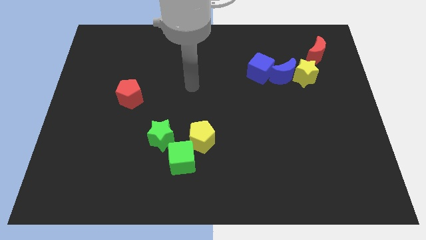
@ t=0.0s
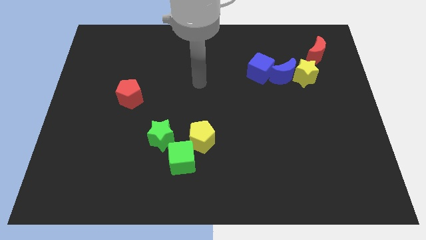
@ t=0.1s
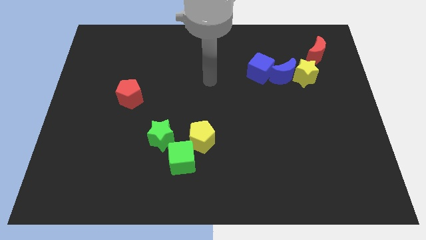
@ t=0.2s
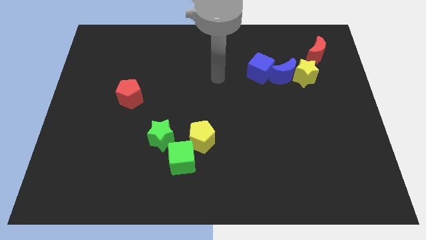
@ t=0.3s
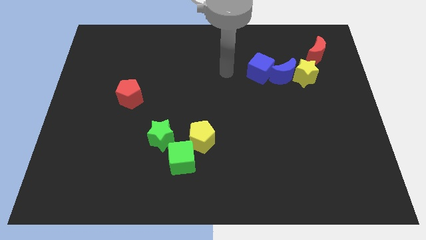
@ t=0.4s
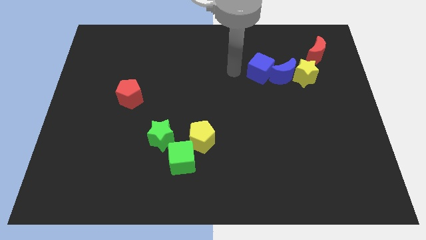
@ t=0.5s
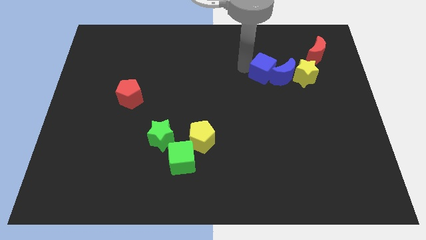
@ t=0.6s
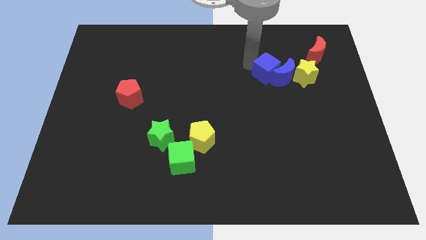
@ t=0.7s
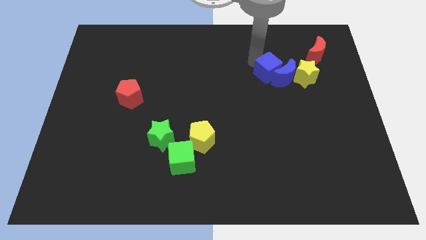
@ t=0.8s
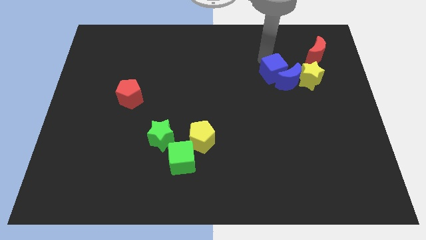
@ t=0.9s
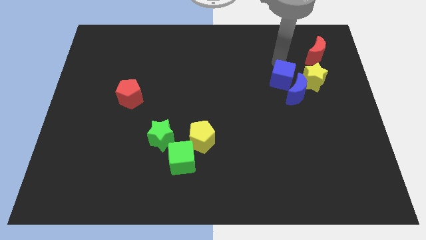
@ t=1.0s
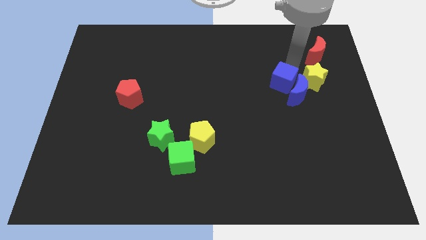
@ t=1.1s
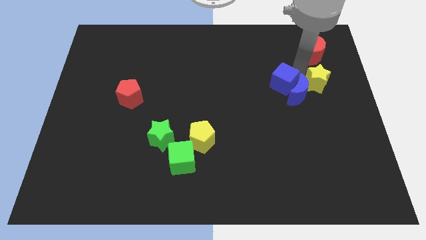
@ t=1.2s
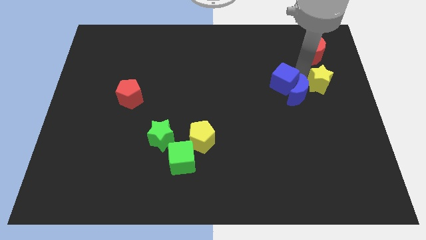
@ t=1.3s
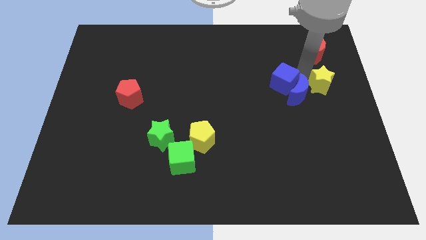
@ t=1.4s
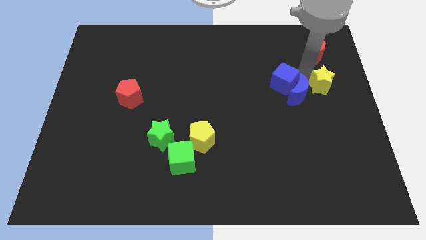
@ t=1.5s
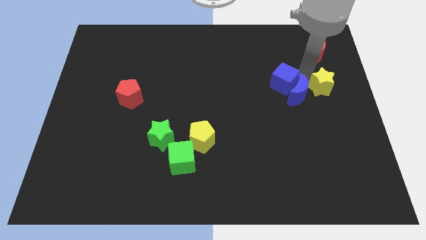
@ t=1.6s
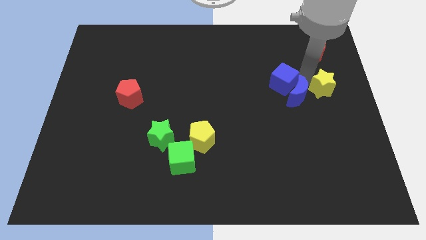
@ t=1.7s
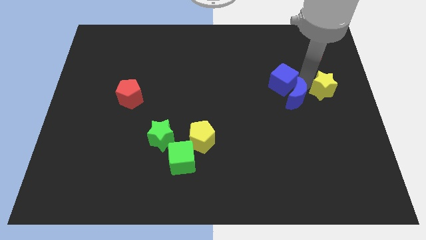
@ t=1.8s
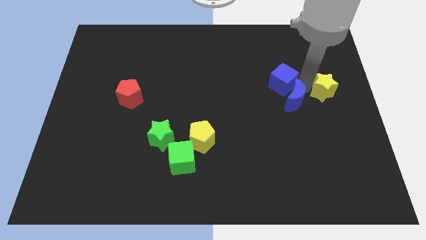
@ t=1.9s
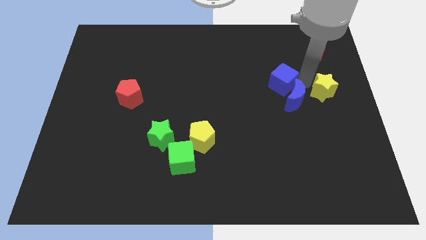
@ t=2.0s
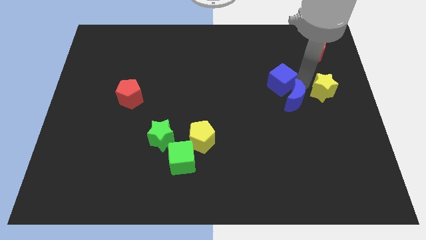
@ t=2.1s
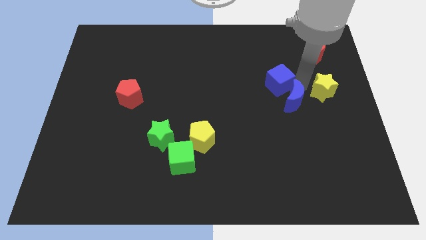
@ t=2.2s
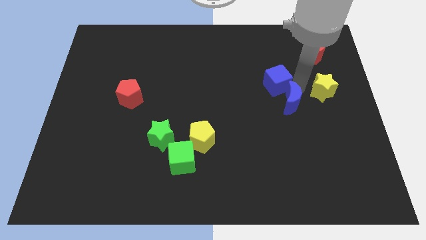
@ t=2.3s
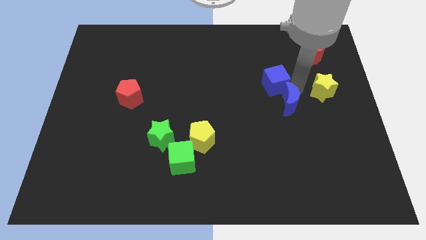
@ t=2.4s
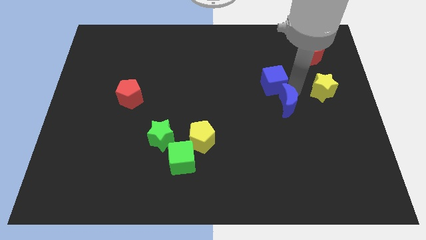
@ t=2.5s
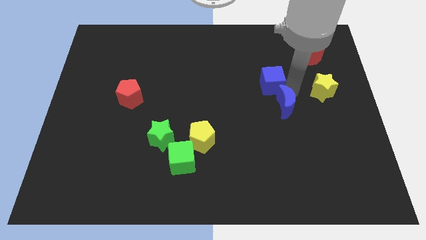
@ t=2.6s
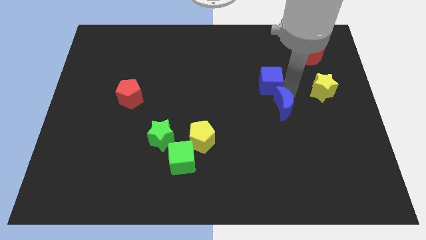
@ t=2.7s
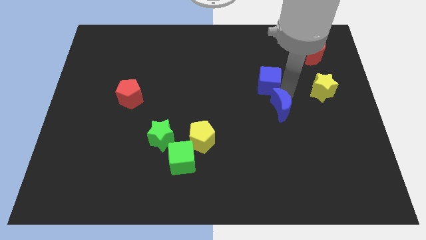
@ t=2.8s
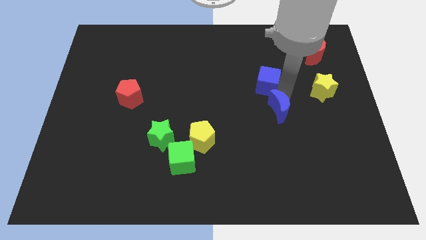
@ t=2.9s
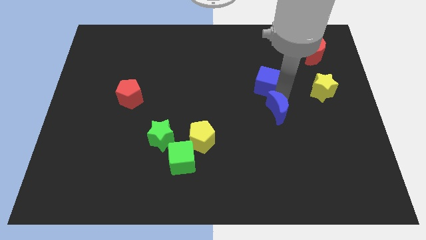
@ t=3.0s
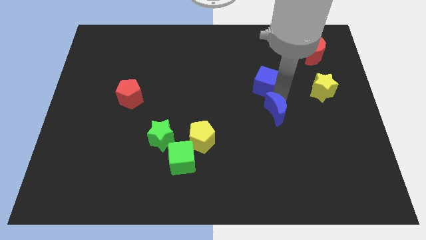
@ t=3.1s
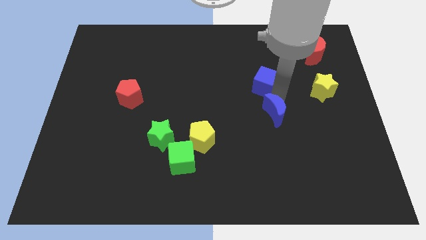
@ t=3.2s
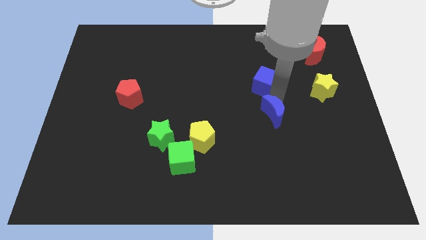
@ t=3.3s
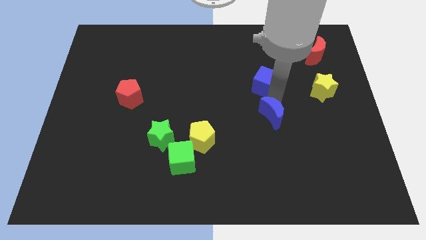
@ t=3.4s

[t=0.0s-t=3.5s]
separate the blue moon from the yellow star and blue cube

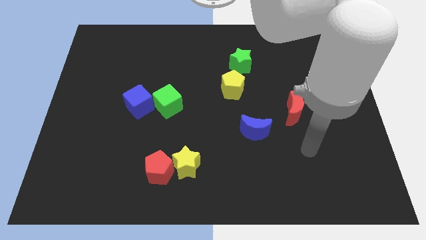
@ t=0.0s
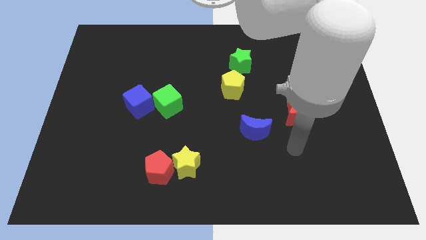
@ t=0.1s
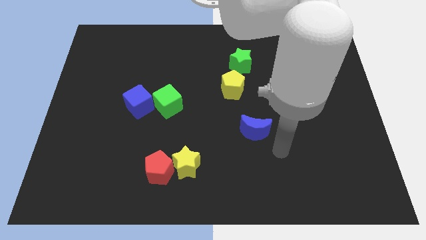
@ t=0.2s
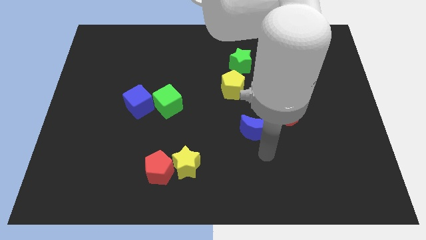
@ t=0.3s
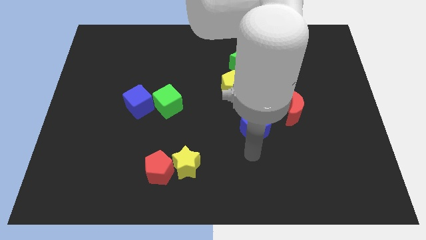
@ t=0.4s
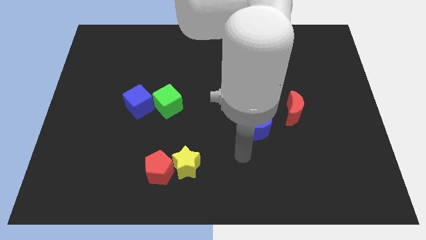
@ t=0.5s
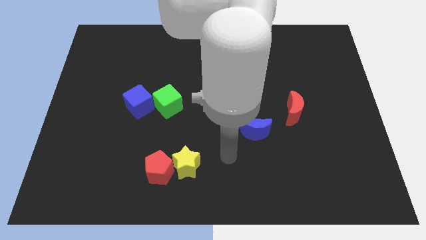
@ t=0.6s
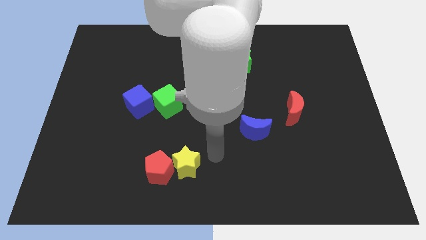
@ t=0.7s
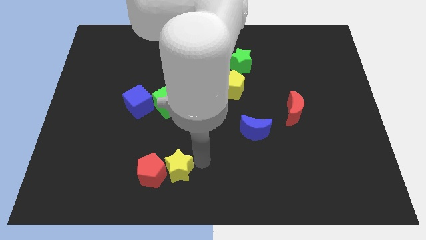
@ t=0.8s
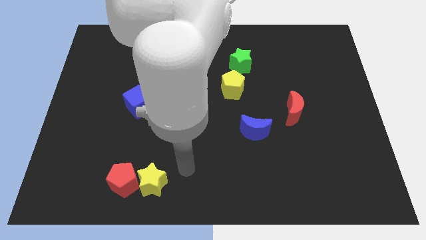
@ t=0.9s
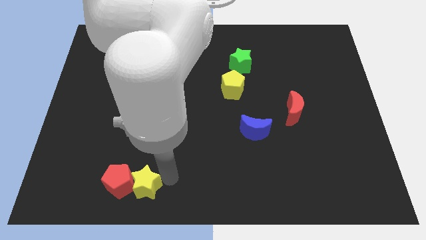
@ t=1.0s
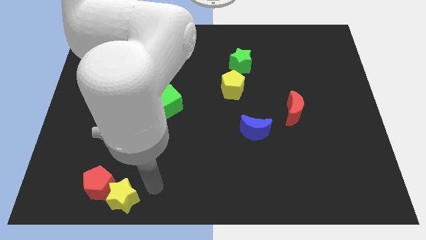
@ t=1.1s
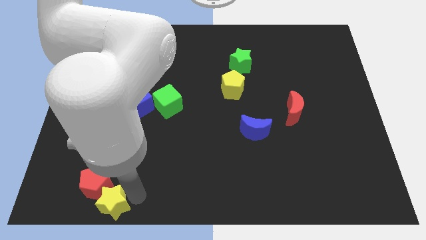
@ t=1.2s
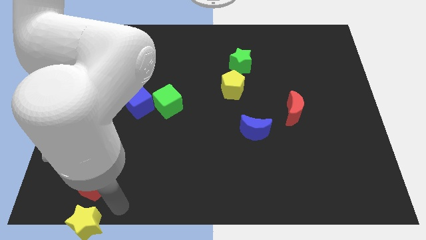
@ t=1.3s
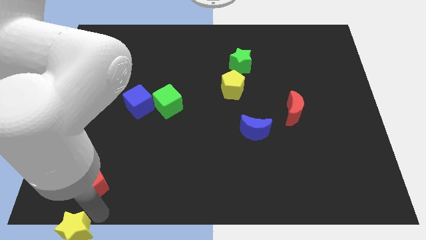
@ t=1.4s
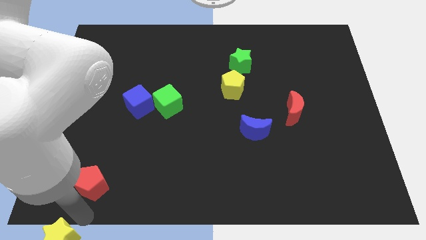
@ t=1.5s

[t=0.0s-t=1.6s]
pull the red pentagon apart from the yellow star

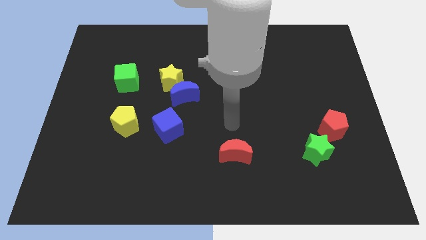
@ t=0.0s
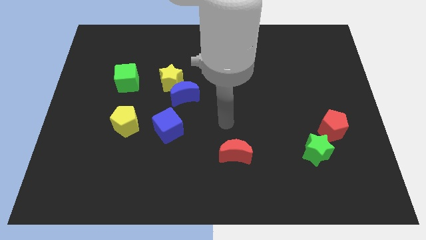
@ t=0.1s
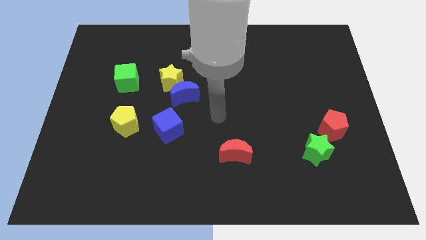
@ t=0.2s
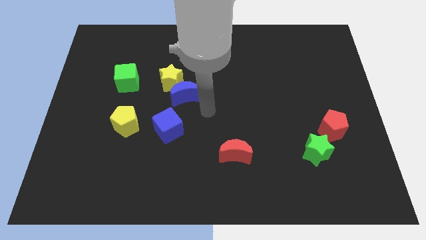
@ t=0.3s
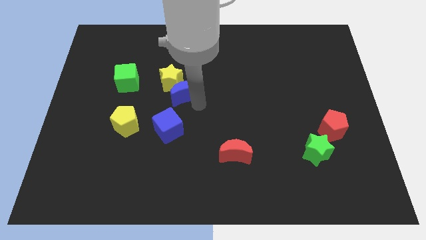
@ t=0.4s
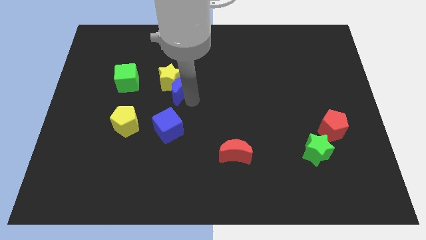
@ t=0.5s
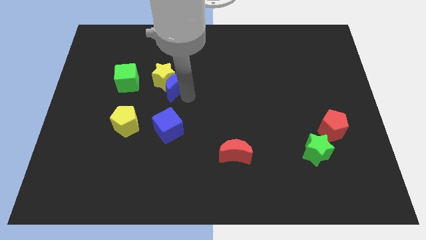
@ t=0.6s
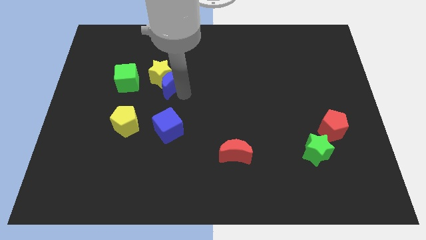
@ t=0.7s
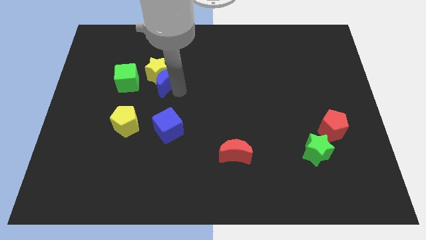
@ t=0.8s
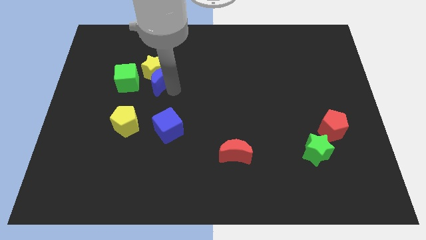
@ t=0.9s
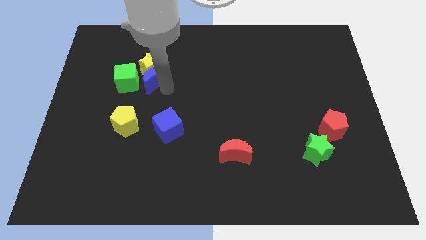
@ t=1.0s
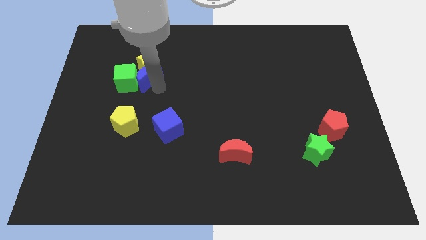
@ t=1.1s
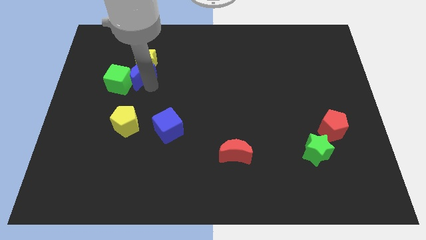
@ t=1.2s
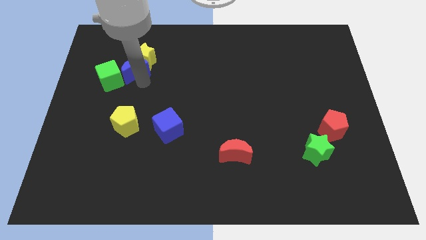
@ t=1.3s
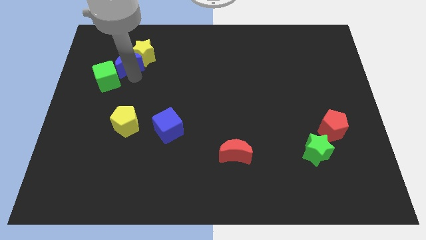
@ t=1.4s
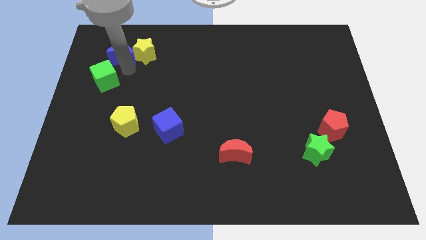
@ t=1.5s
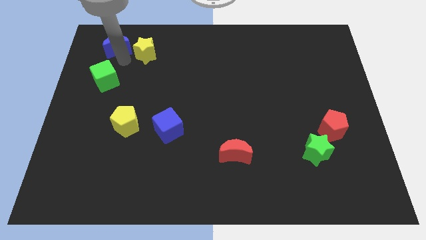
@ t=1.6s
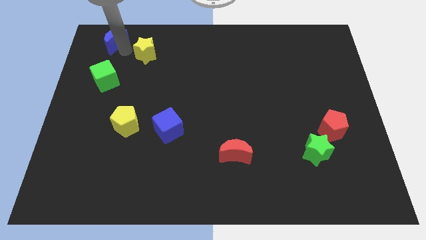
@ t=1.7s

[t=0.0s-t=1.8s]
pull the yellow star apart from the blue moon

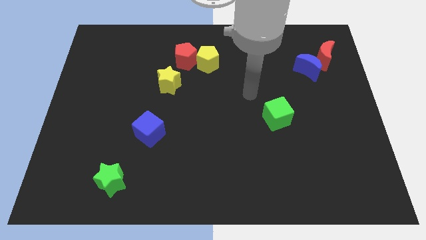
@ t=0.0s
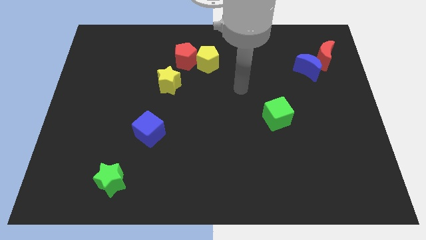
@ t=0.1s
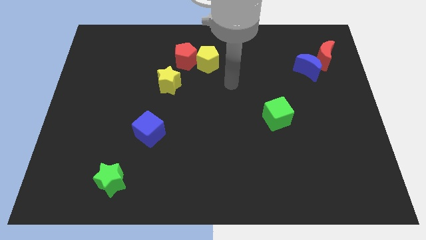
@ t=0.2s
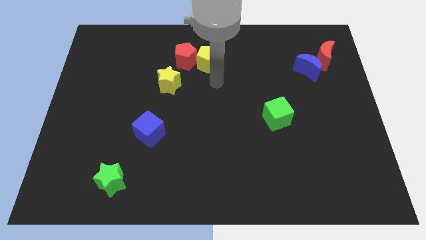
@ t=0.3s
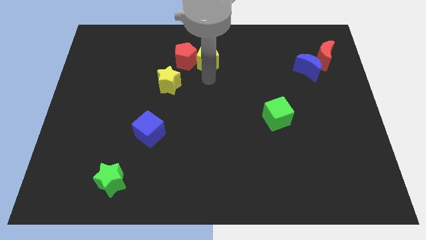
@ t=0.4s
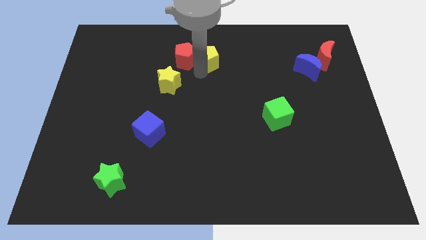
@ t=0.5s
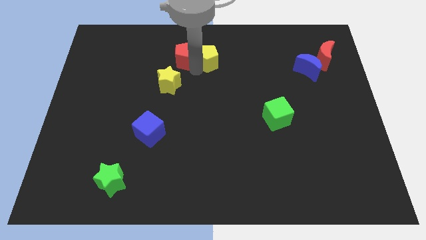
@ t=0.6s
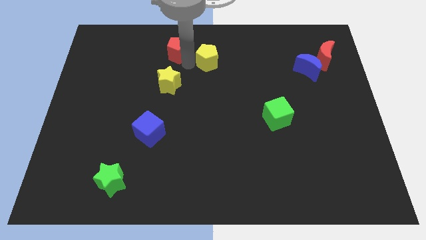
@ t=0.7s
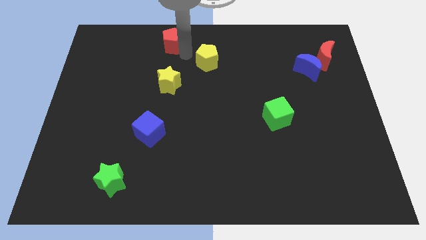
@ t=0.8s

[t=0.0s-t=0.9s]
pull the yellow pentagon apart from the red pentagon

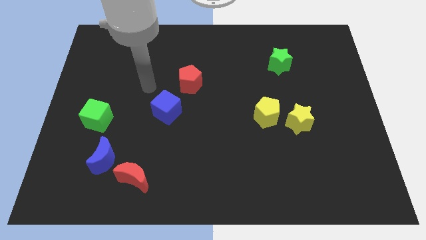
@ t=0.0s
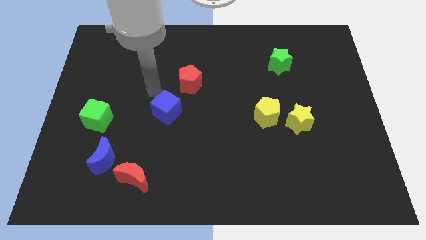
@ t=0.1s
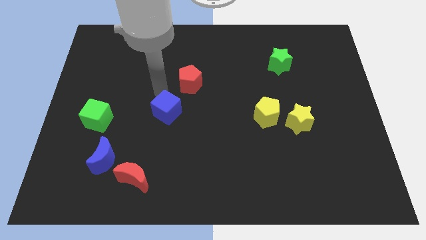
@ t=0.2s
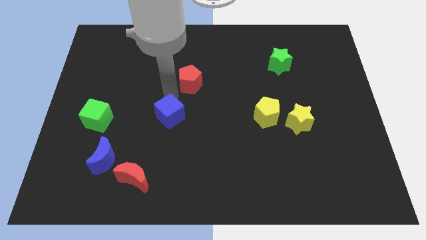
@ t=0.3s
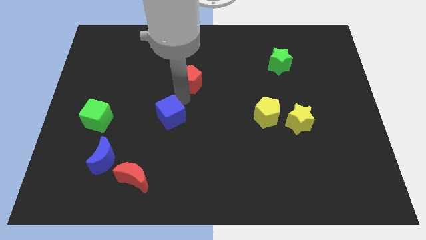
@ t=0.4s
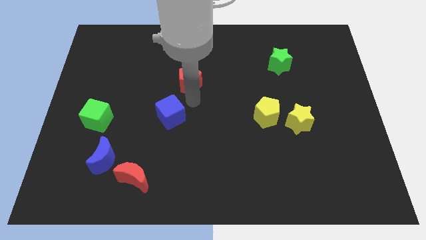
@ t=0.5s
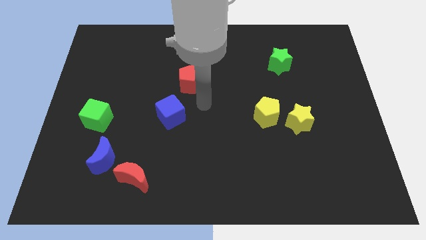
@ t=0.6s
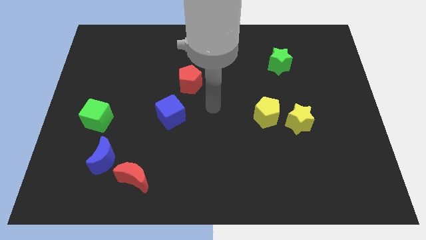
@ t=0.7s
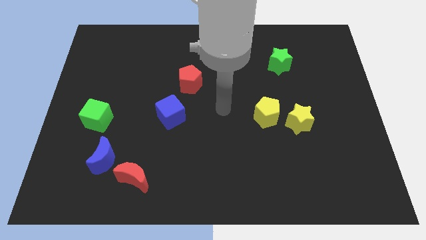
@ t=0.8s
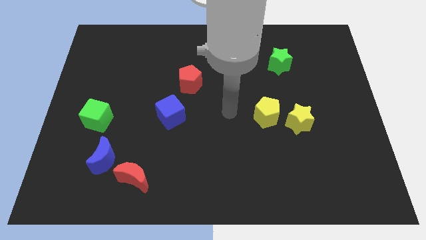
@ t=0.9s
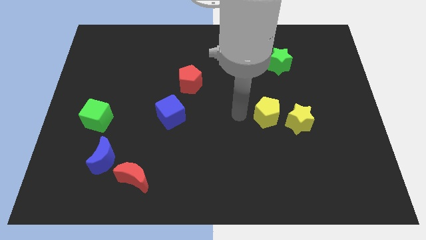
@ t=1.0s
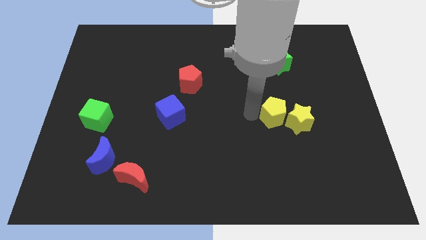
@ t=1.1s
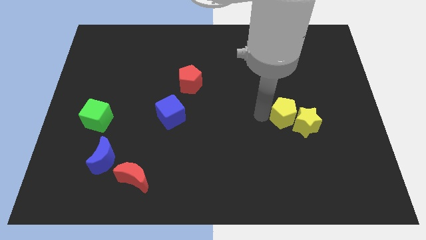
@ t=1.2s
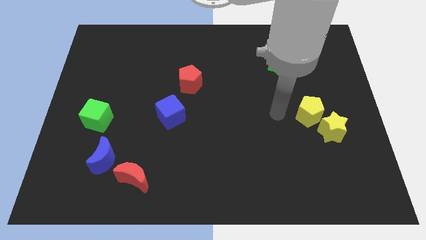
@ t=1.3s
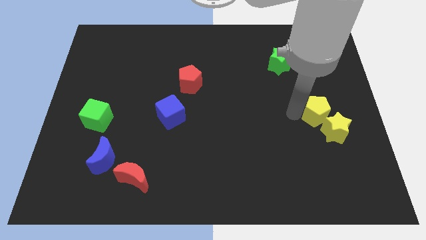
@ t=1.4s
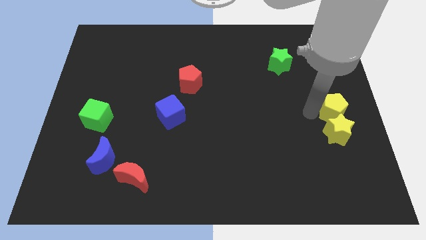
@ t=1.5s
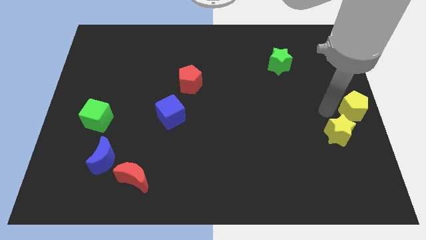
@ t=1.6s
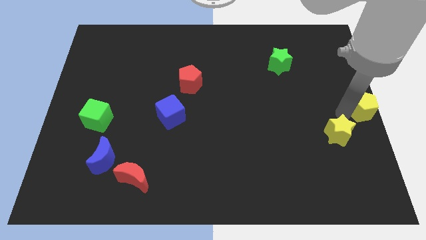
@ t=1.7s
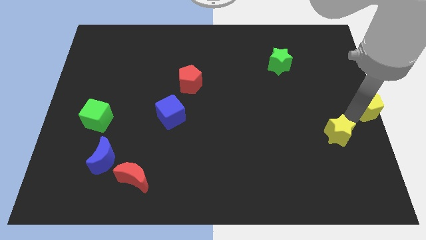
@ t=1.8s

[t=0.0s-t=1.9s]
pull the yellow star apart from the yellow pentagon
